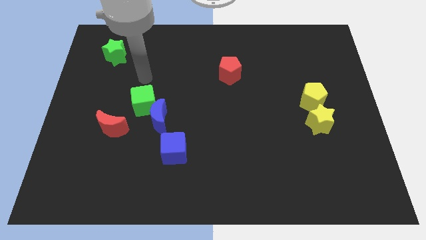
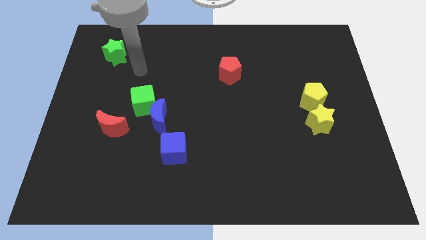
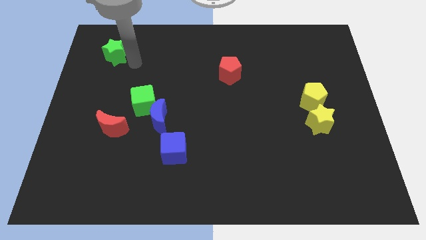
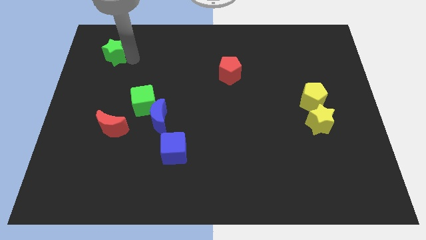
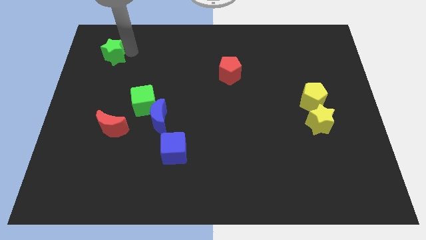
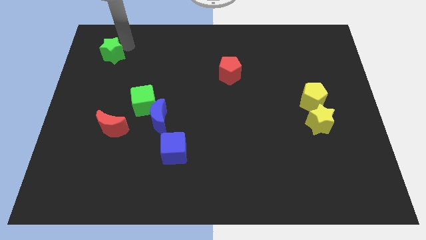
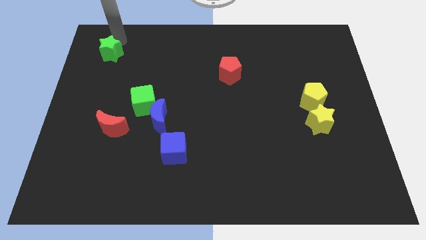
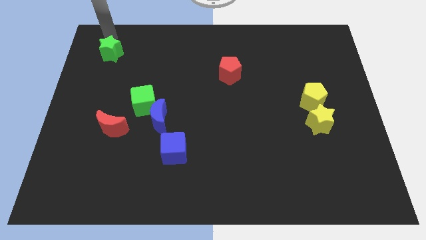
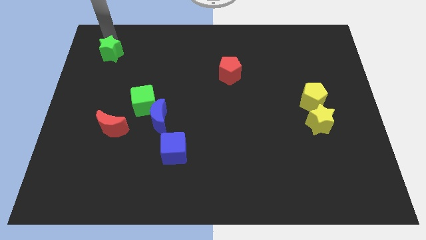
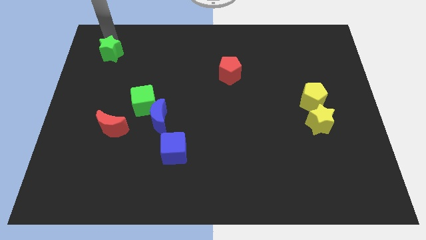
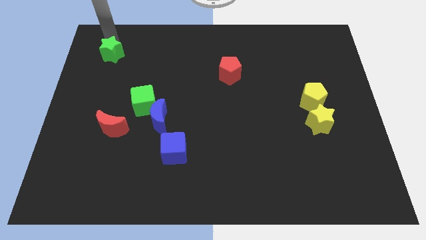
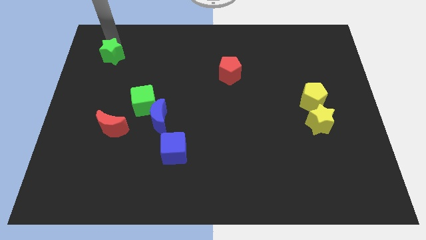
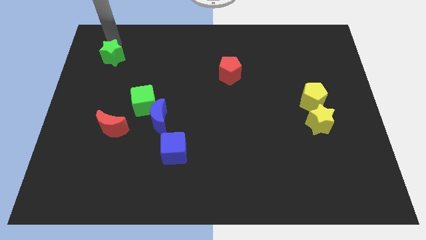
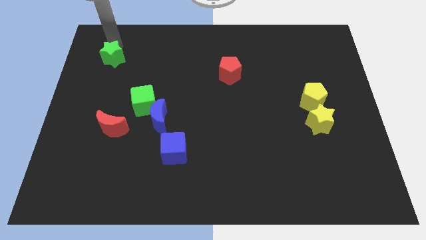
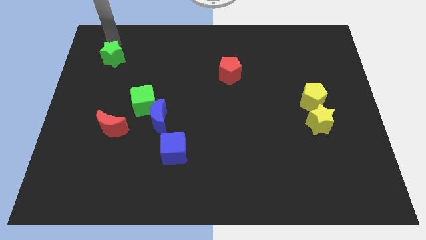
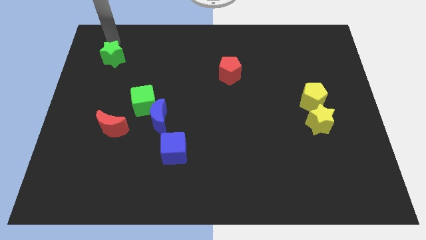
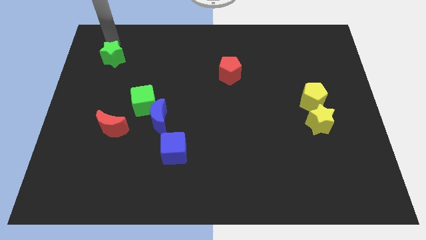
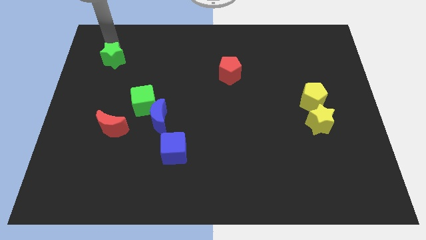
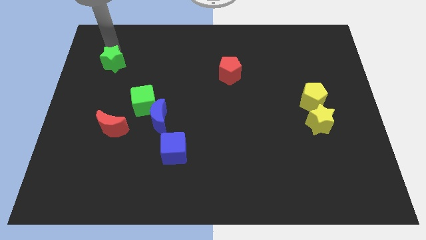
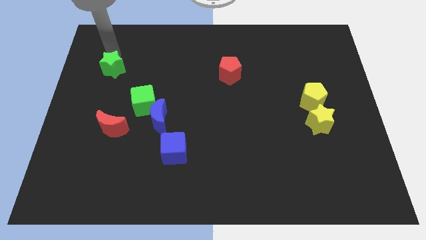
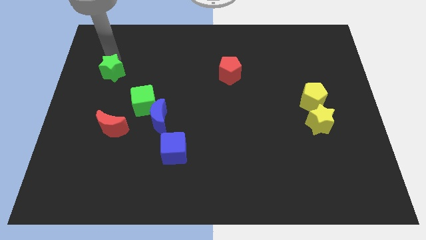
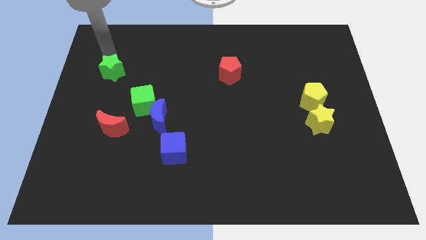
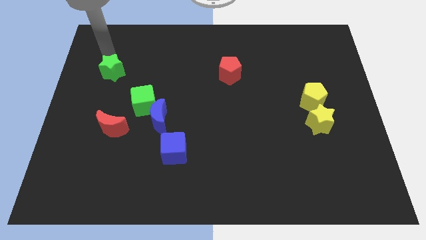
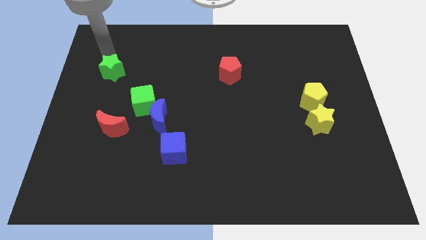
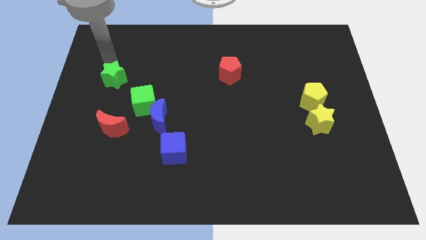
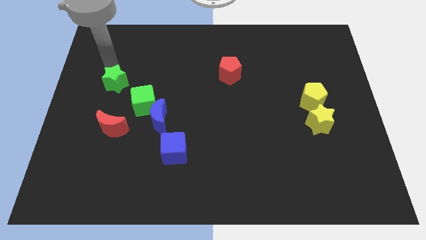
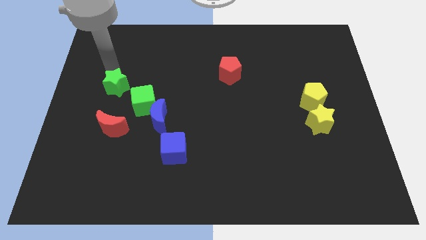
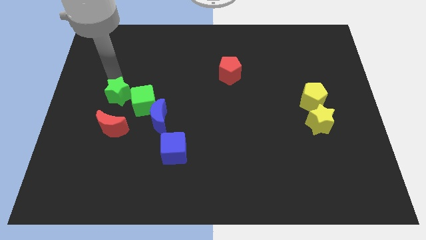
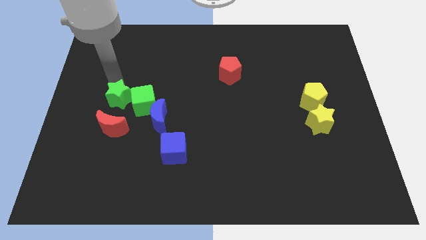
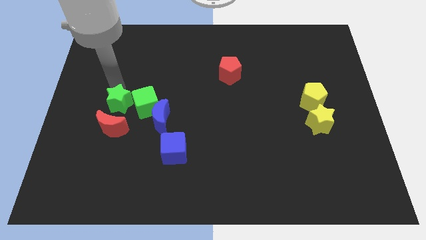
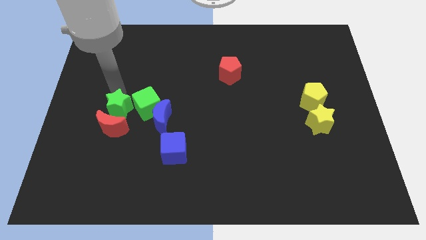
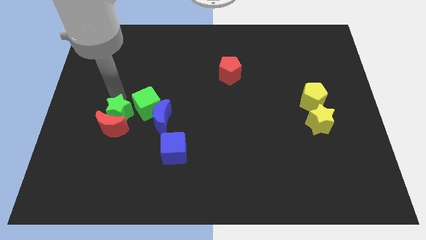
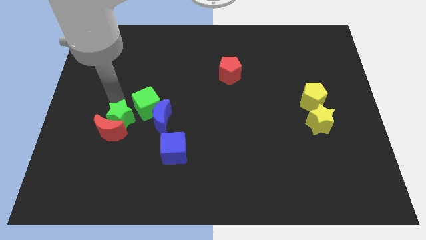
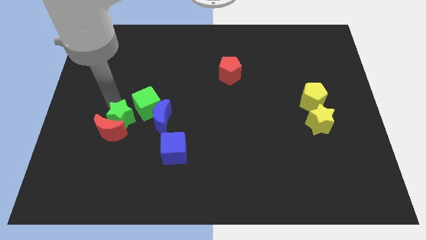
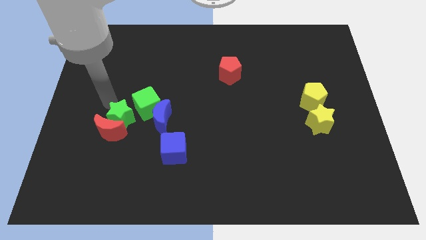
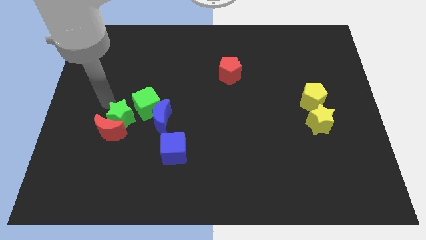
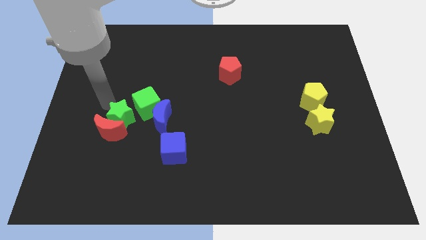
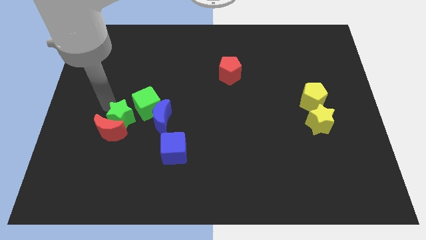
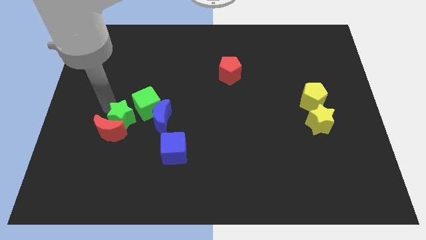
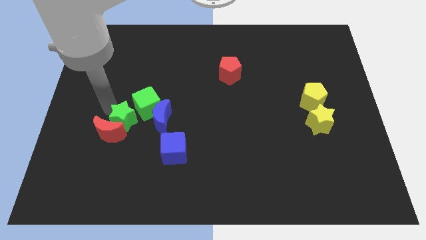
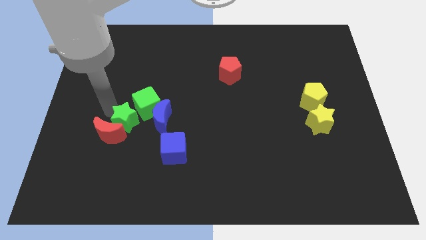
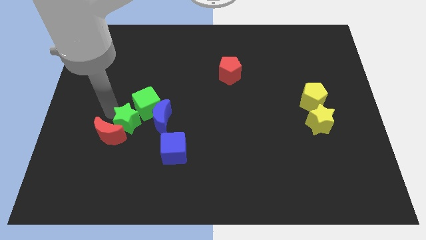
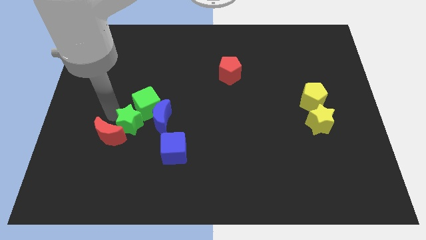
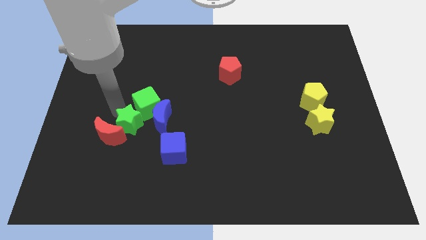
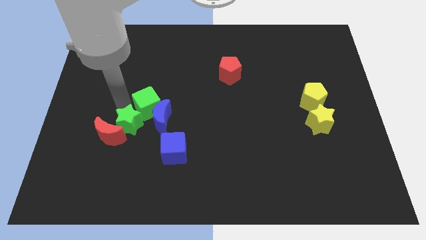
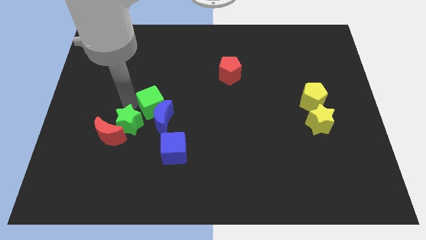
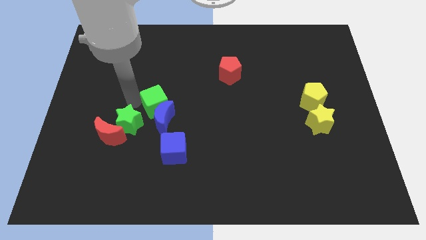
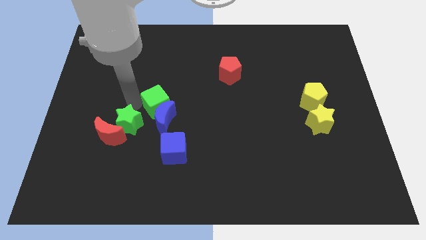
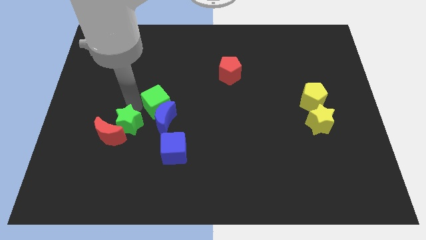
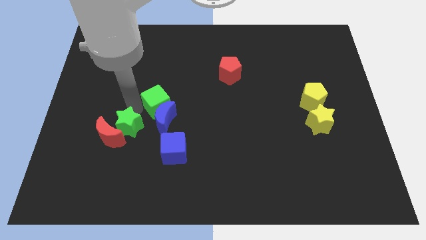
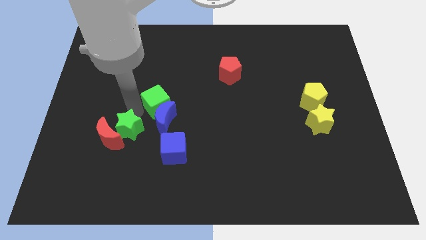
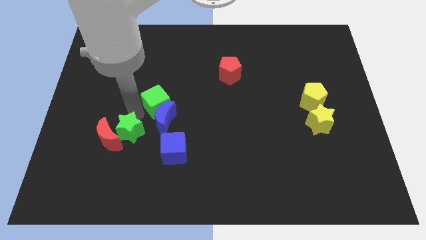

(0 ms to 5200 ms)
move the green star to the left side of the blue cube

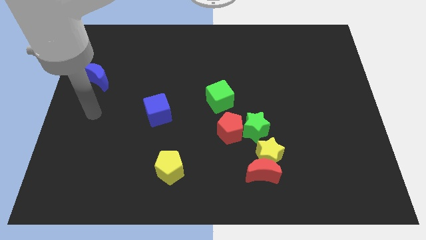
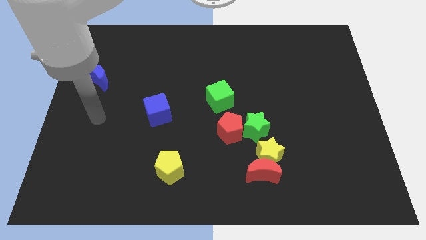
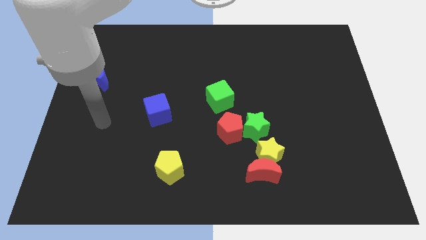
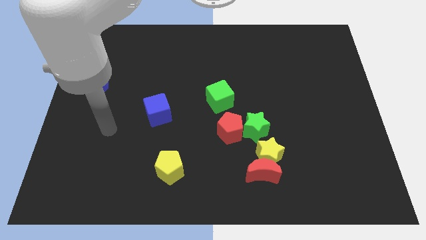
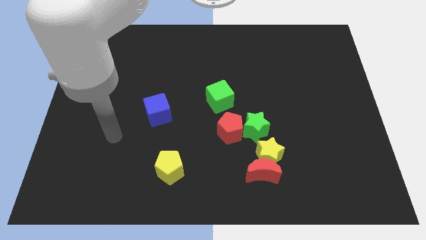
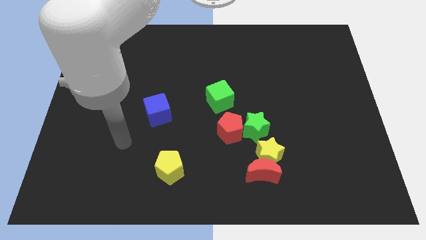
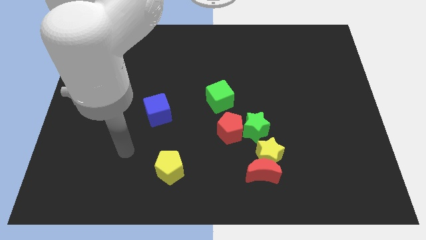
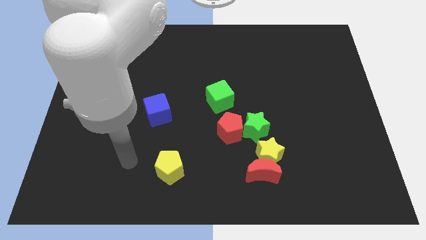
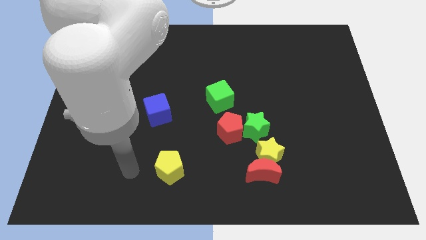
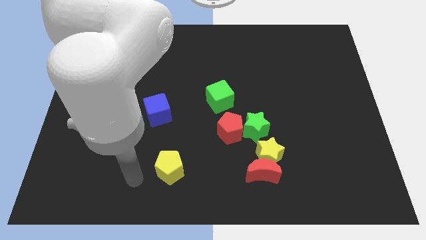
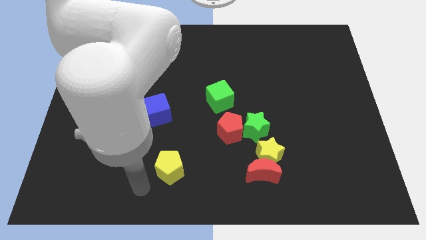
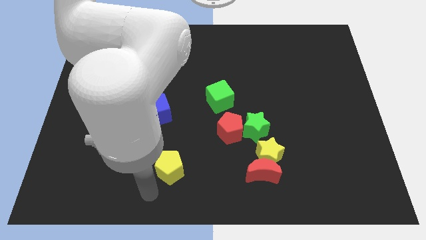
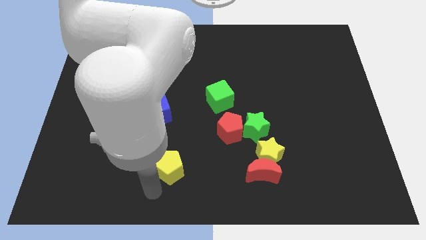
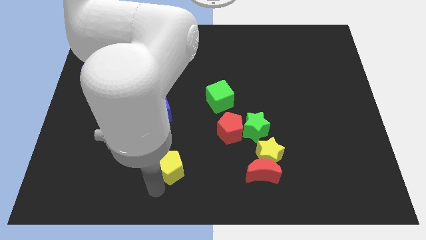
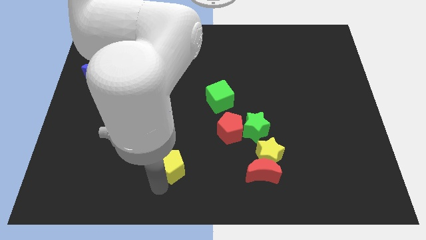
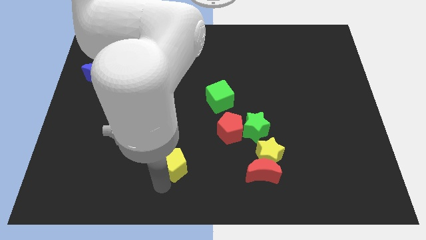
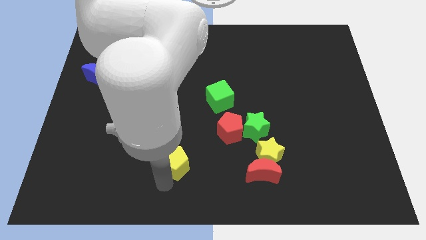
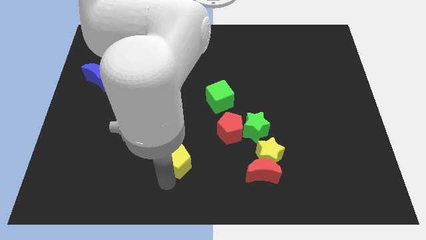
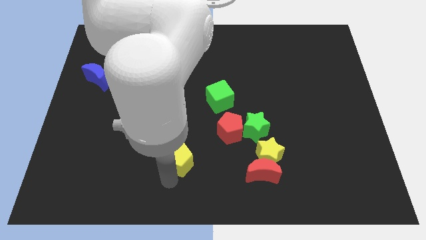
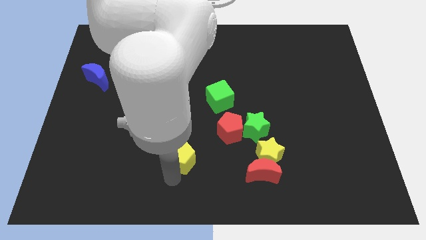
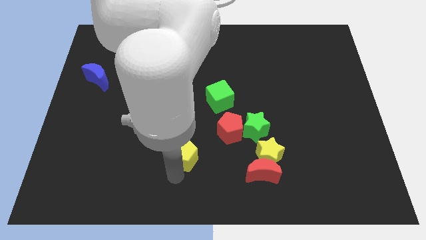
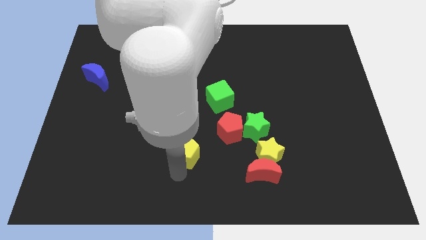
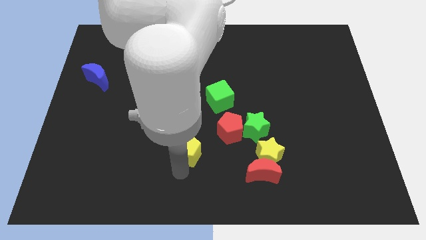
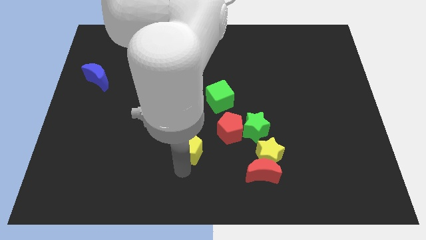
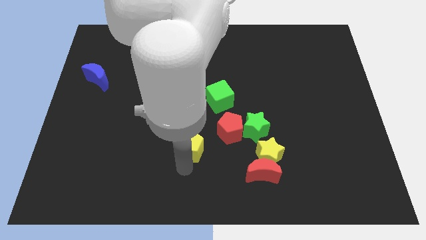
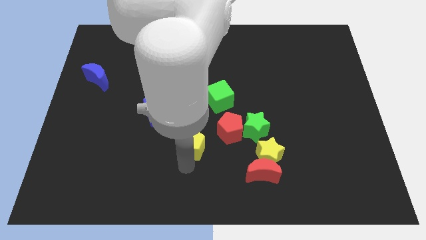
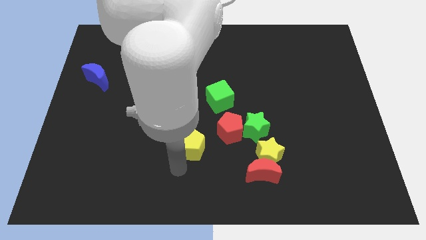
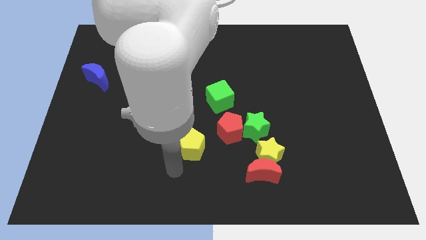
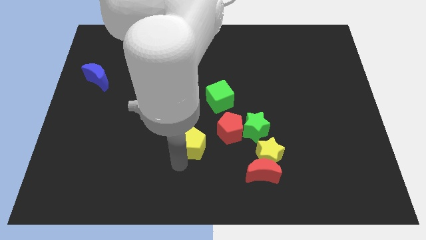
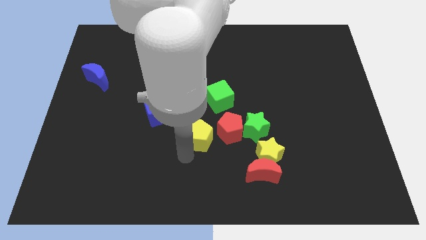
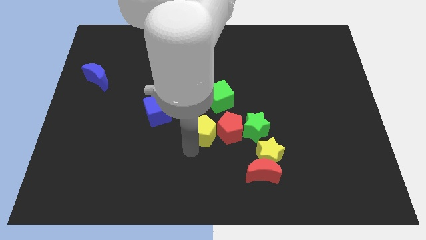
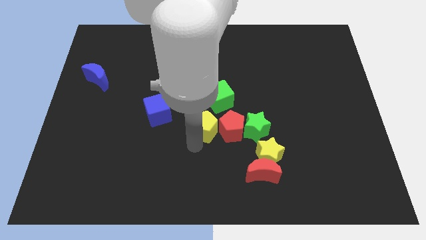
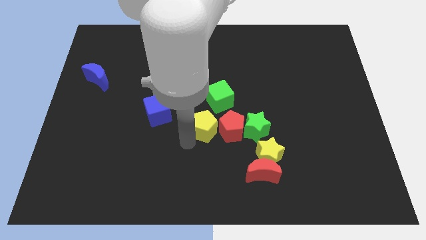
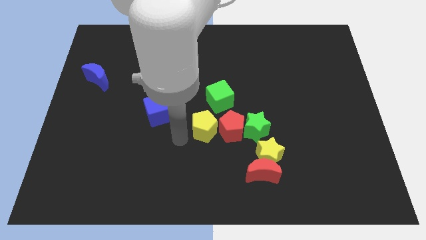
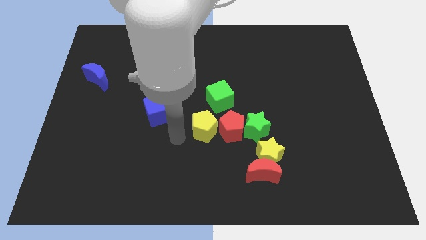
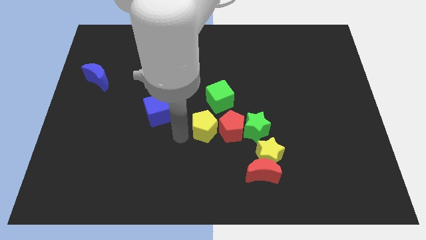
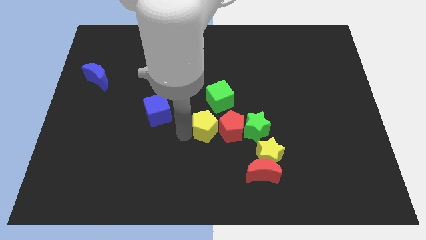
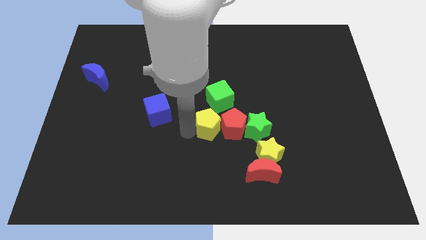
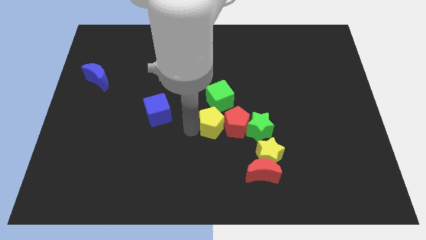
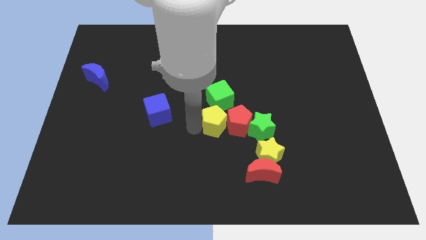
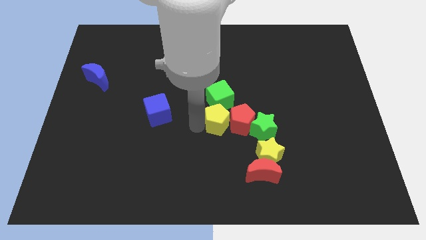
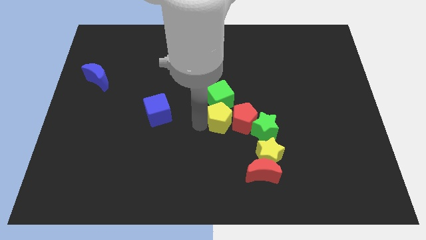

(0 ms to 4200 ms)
move the yellow pentagon to the bottom right of the green cube
